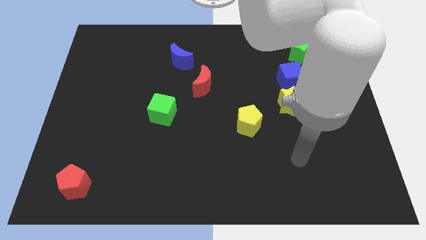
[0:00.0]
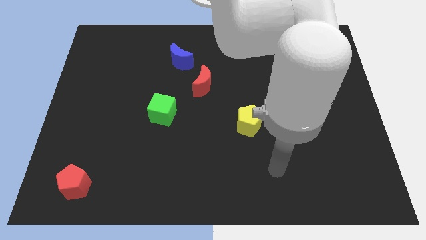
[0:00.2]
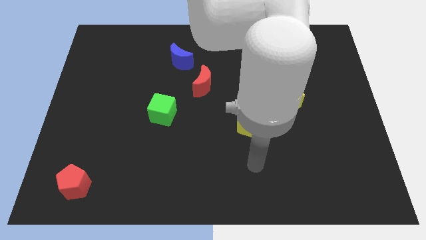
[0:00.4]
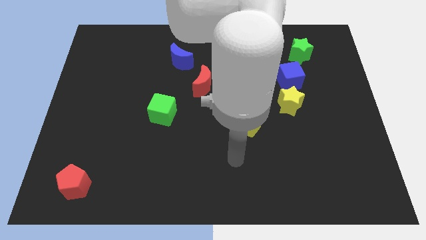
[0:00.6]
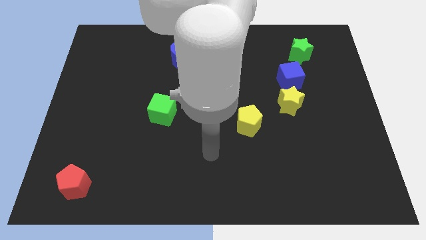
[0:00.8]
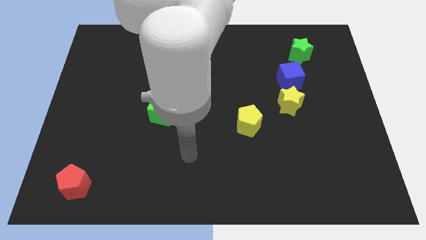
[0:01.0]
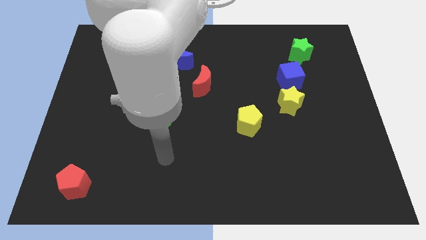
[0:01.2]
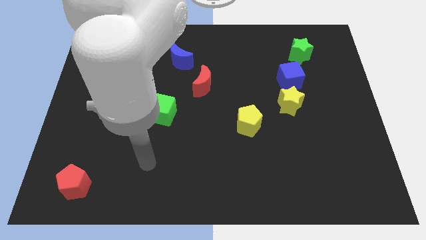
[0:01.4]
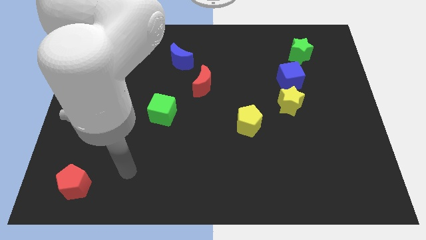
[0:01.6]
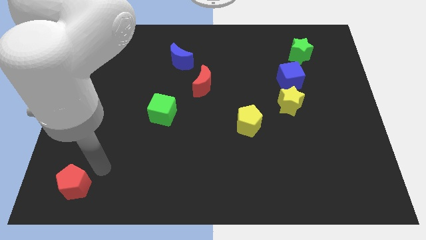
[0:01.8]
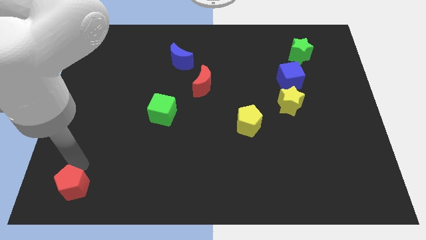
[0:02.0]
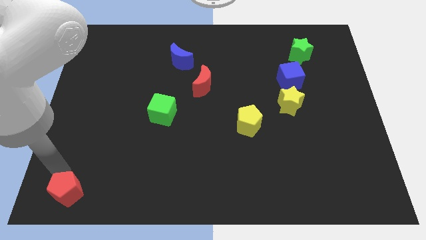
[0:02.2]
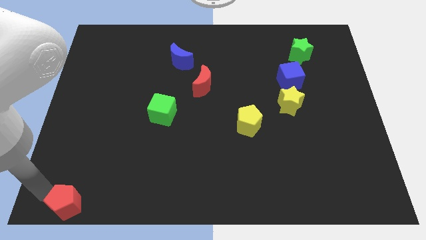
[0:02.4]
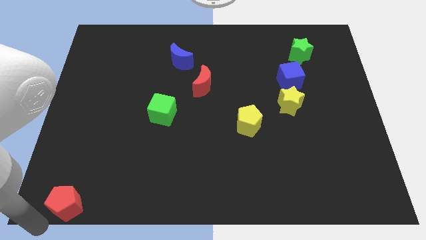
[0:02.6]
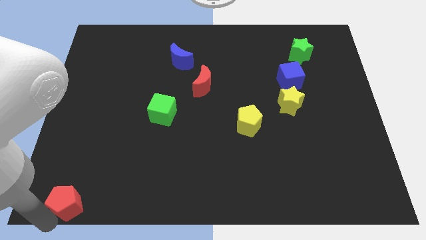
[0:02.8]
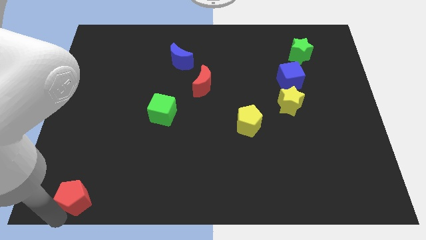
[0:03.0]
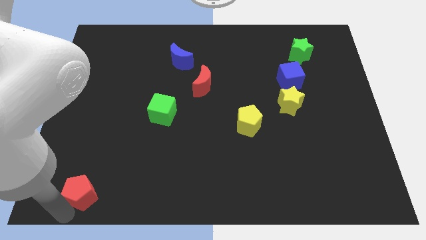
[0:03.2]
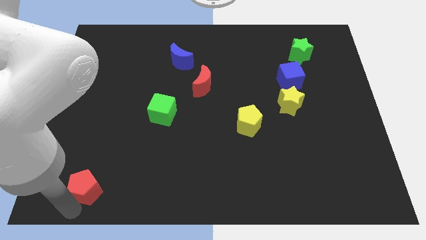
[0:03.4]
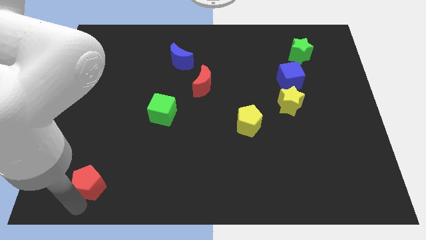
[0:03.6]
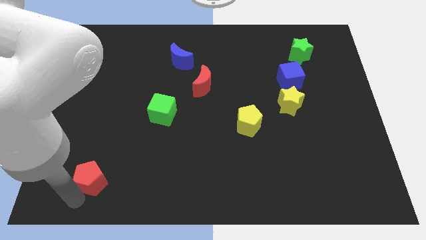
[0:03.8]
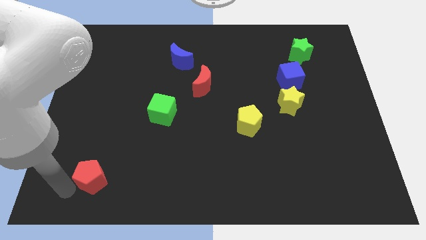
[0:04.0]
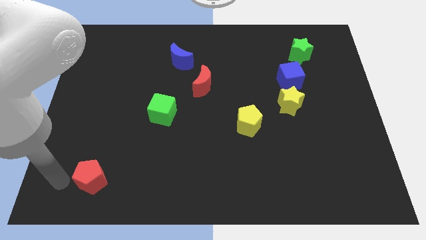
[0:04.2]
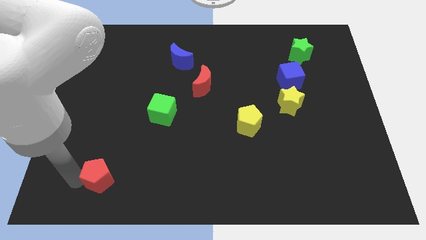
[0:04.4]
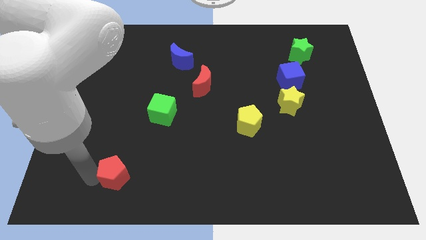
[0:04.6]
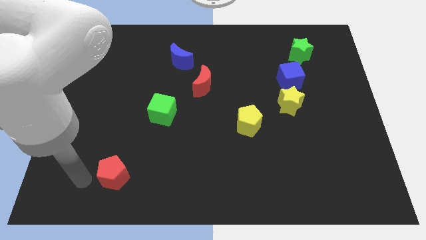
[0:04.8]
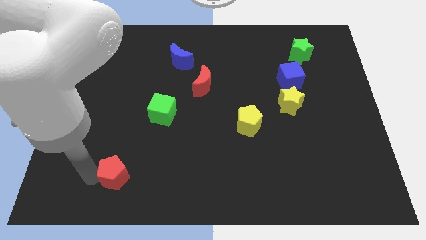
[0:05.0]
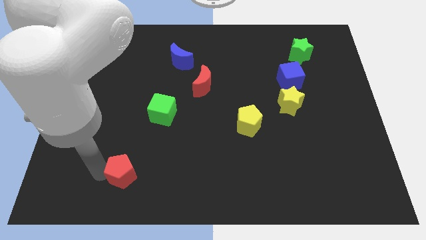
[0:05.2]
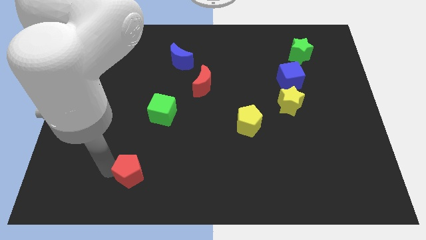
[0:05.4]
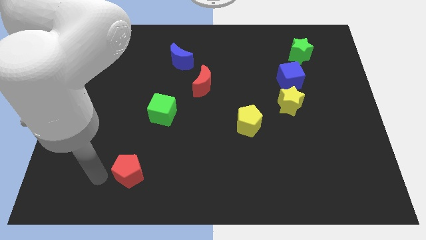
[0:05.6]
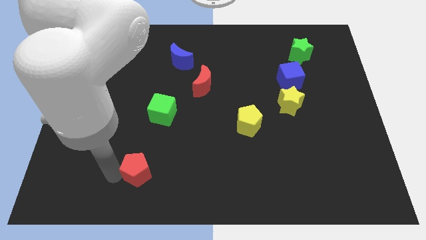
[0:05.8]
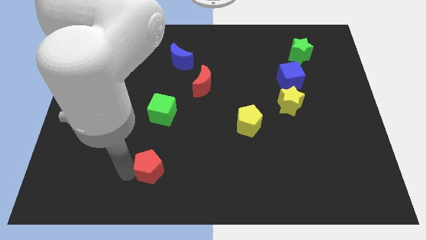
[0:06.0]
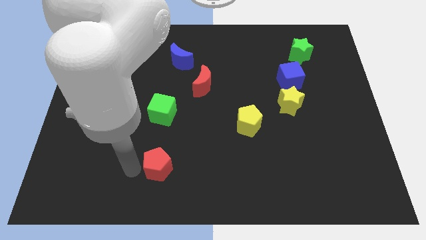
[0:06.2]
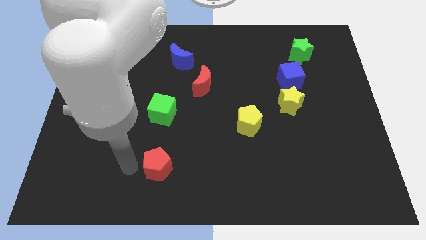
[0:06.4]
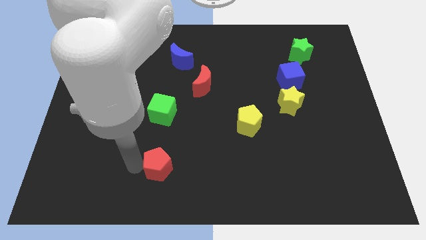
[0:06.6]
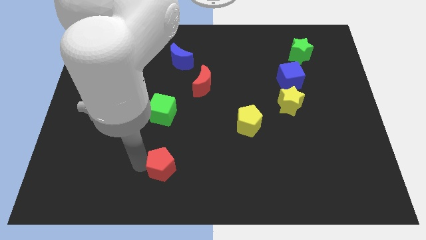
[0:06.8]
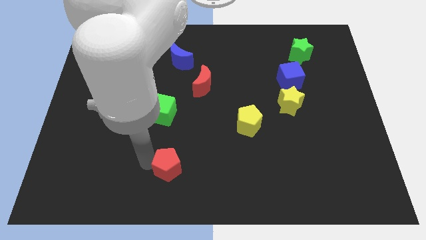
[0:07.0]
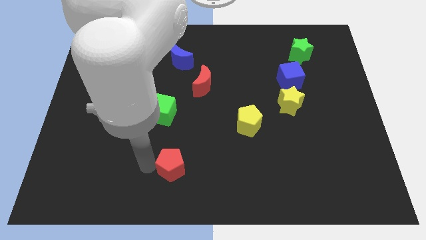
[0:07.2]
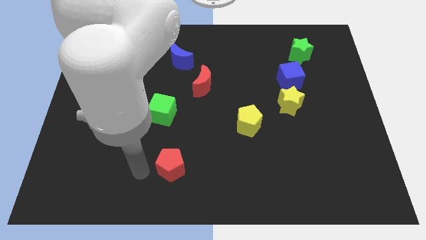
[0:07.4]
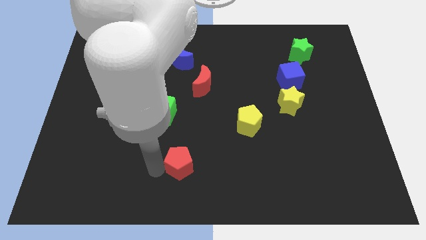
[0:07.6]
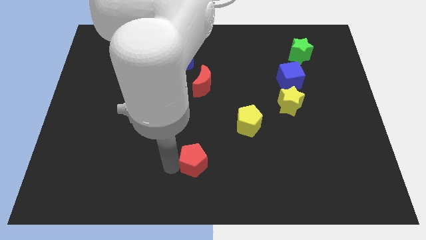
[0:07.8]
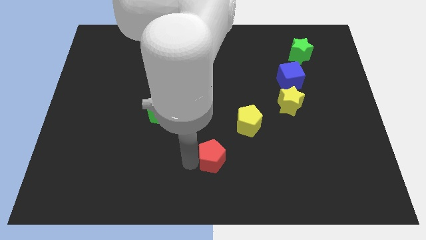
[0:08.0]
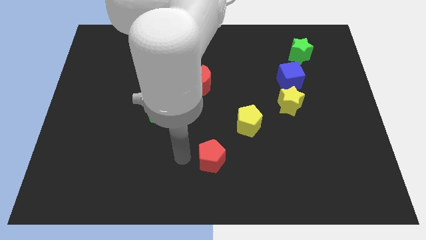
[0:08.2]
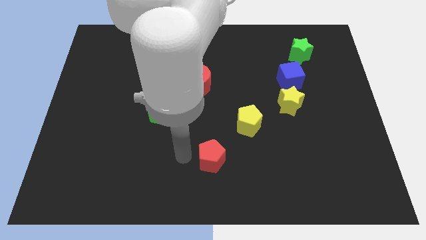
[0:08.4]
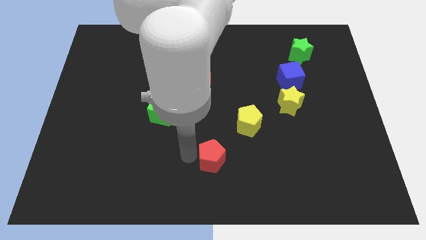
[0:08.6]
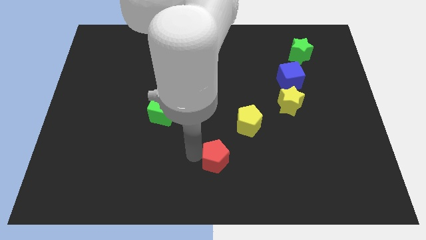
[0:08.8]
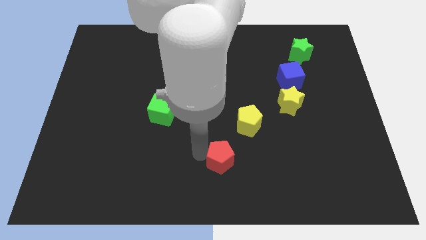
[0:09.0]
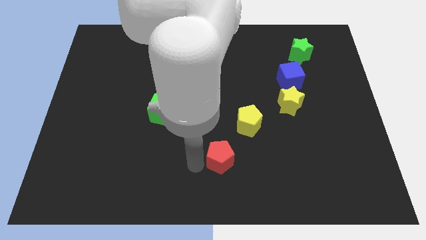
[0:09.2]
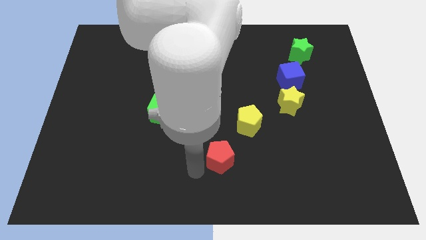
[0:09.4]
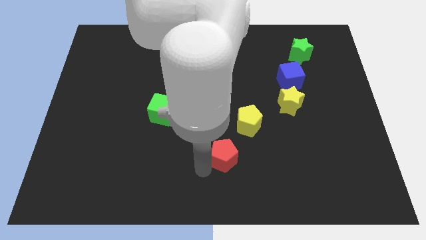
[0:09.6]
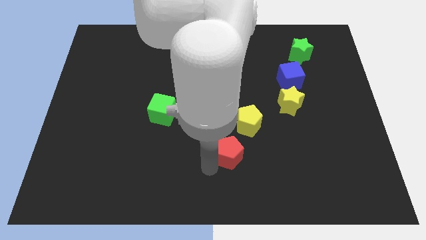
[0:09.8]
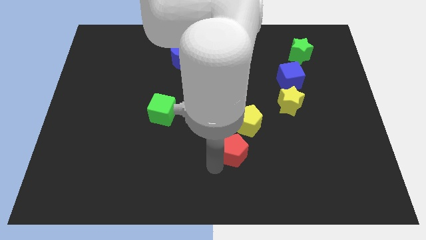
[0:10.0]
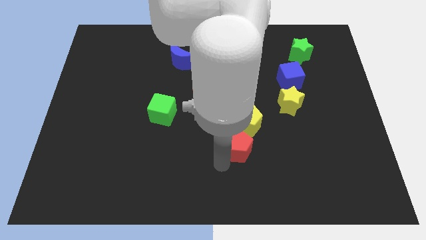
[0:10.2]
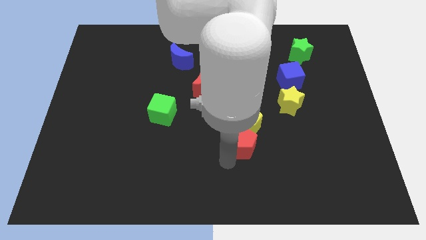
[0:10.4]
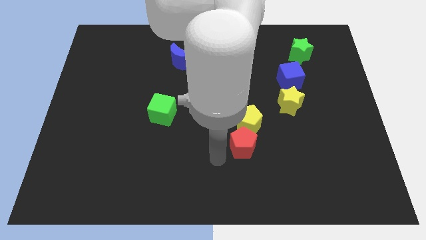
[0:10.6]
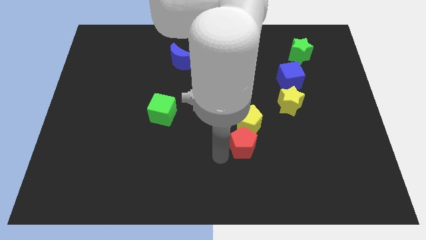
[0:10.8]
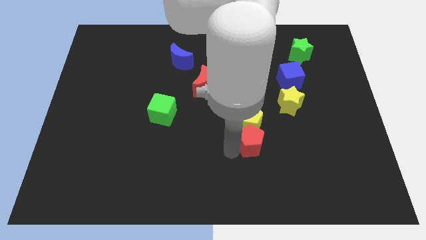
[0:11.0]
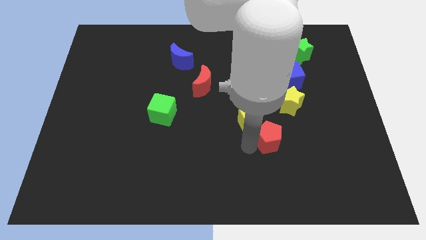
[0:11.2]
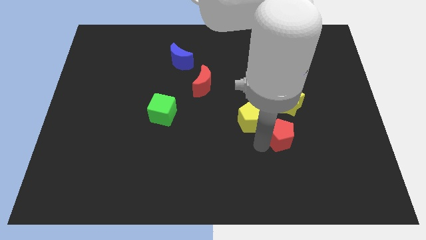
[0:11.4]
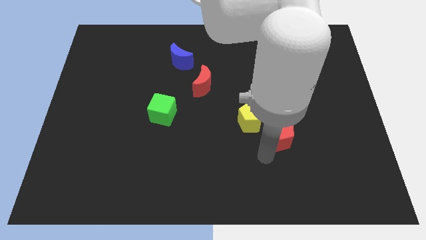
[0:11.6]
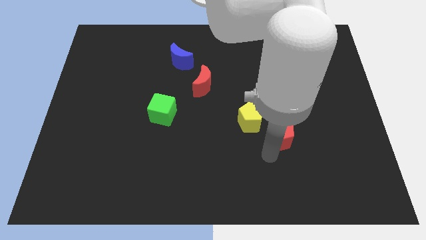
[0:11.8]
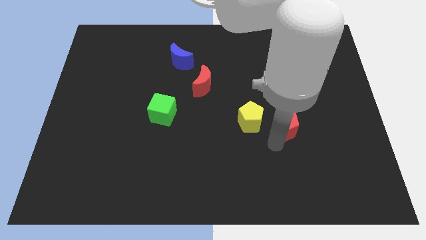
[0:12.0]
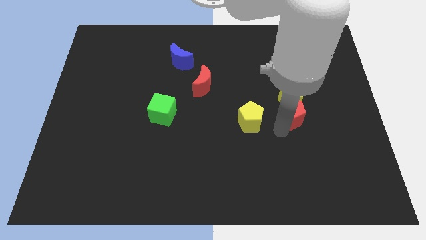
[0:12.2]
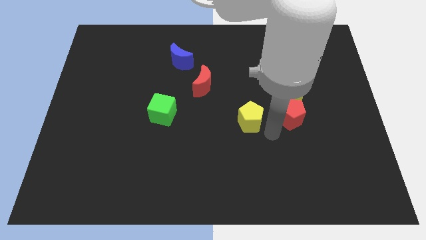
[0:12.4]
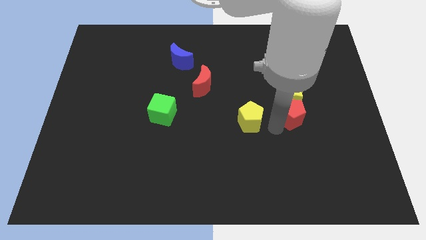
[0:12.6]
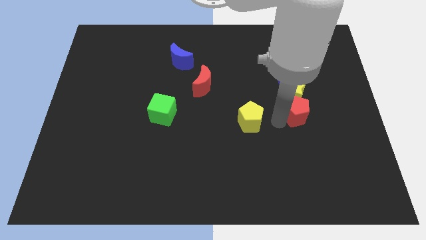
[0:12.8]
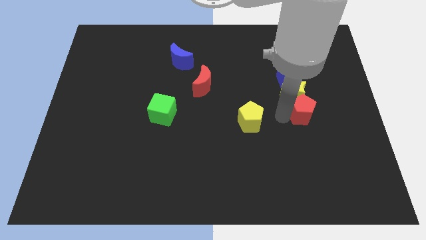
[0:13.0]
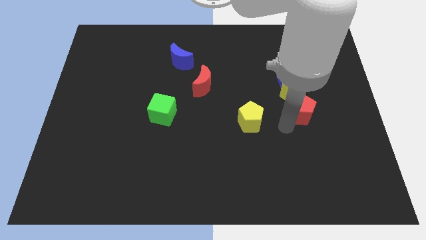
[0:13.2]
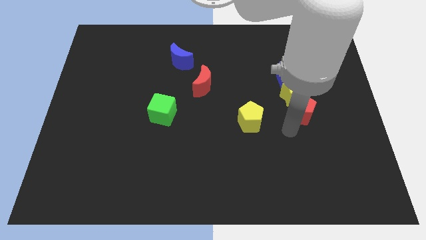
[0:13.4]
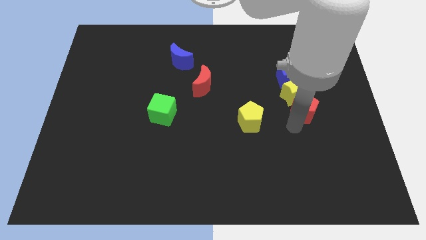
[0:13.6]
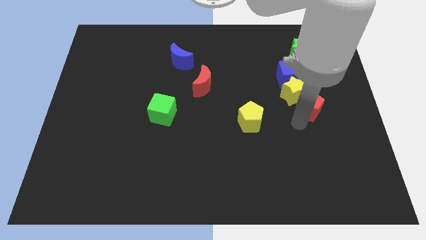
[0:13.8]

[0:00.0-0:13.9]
push the red pentagon diagonally down and to the right of the blue cube
